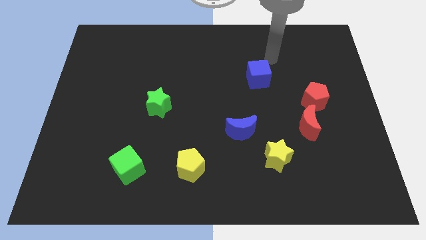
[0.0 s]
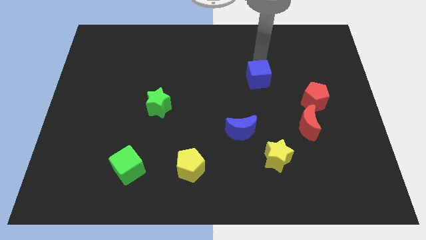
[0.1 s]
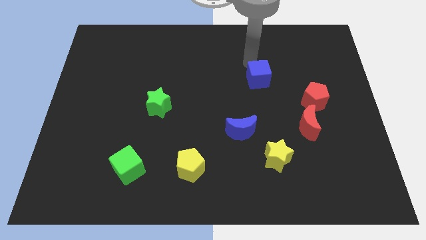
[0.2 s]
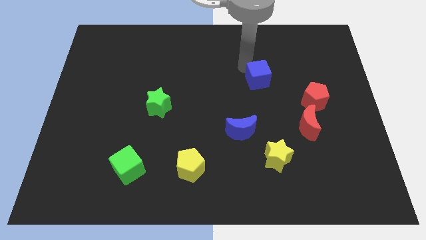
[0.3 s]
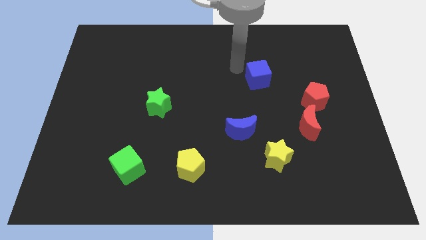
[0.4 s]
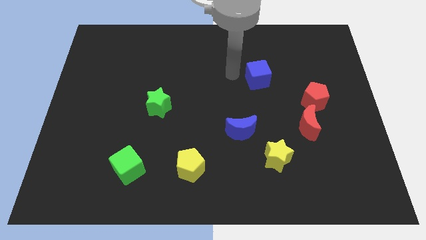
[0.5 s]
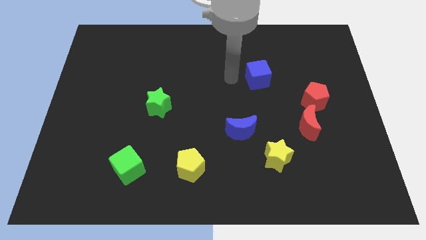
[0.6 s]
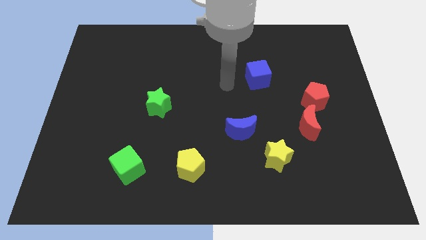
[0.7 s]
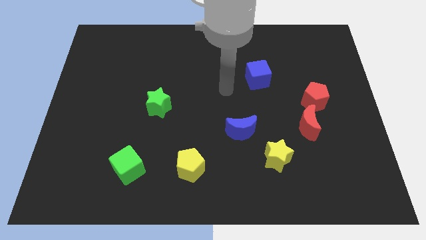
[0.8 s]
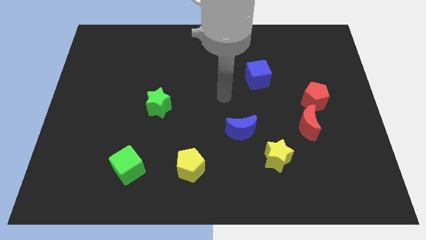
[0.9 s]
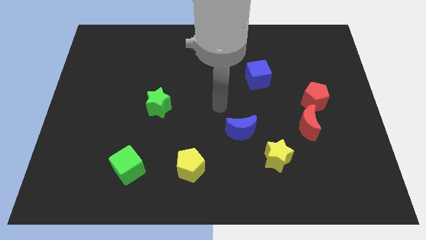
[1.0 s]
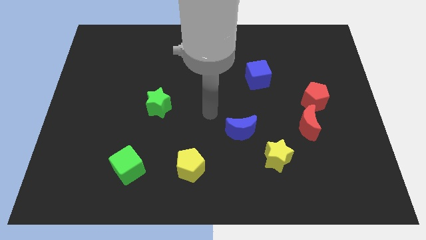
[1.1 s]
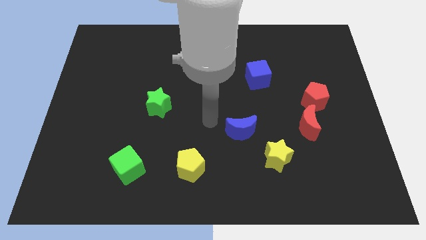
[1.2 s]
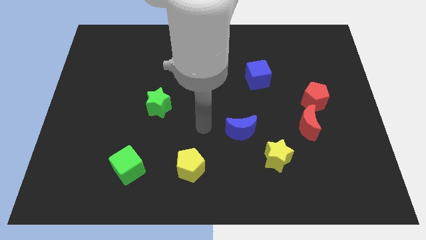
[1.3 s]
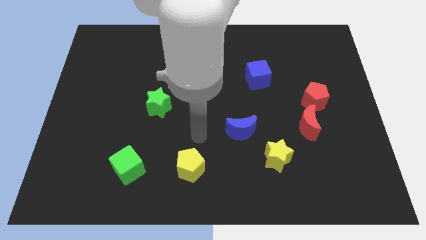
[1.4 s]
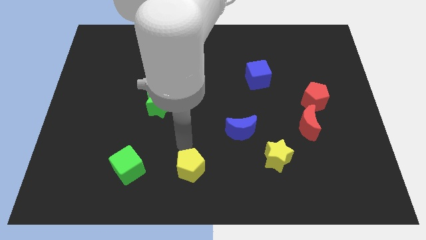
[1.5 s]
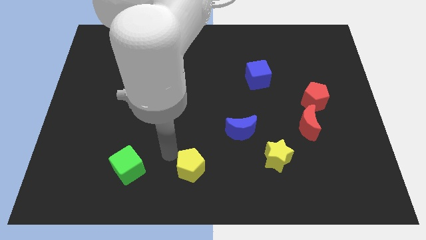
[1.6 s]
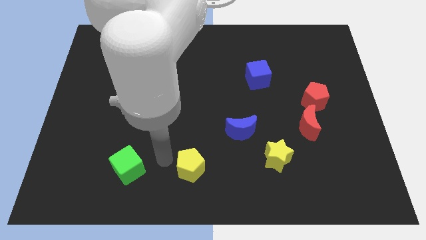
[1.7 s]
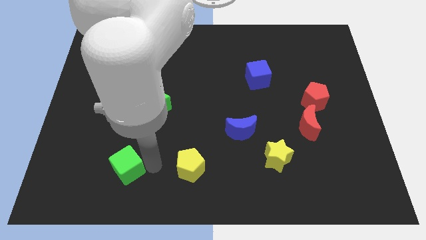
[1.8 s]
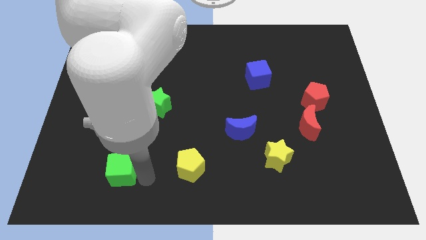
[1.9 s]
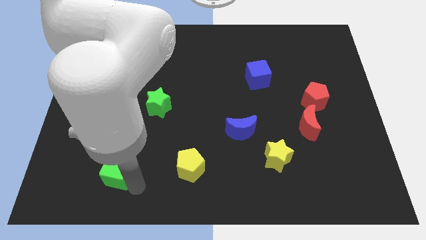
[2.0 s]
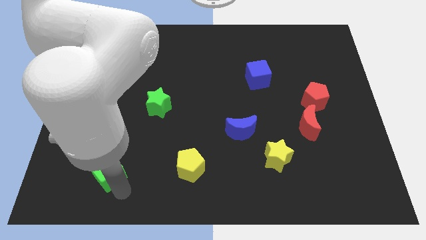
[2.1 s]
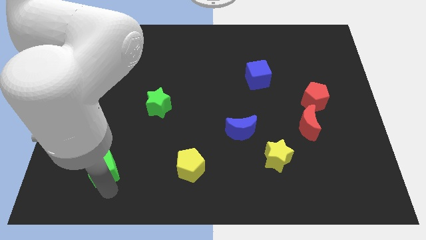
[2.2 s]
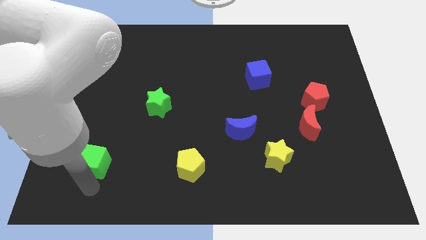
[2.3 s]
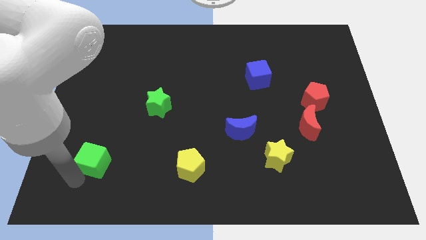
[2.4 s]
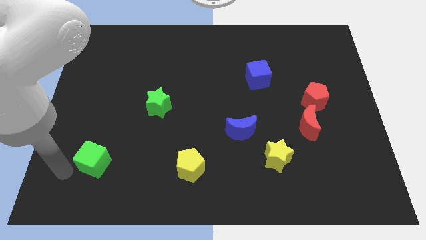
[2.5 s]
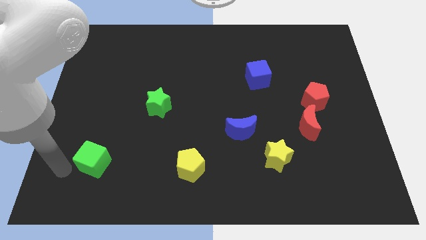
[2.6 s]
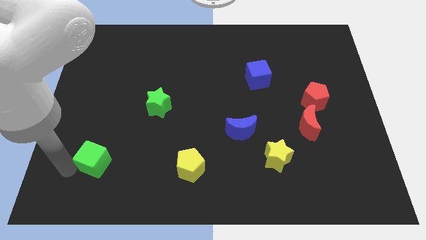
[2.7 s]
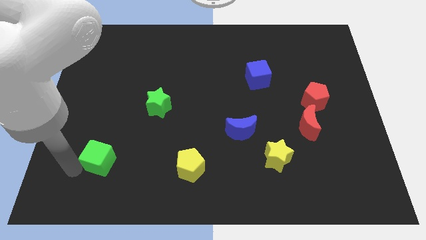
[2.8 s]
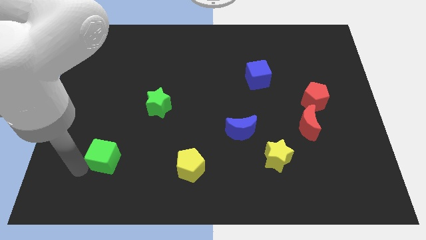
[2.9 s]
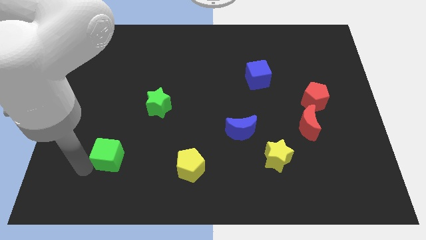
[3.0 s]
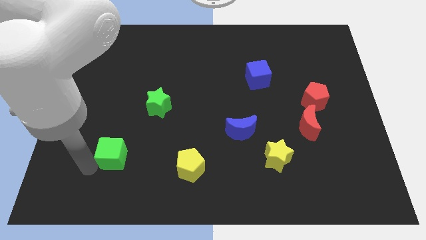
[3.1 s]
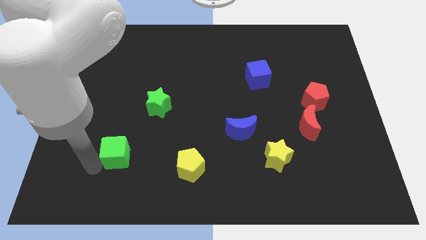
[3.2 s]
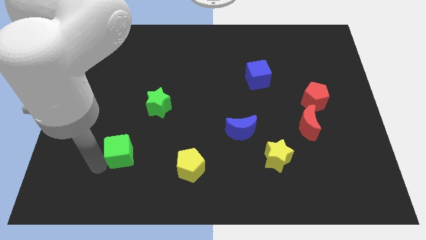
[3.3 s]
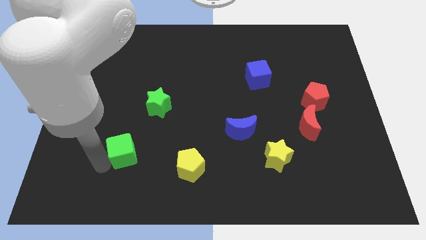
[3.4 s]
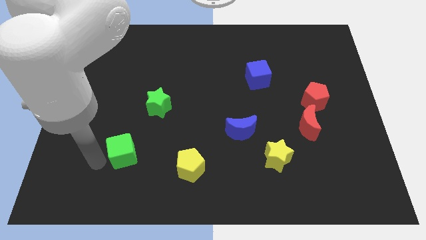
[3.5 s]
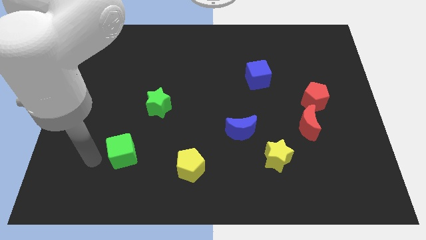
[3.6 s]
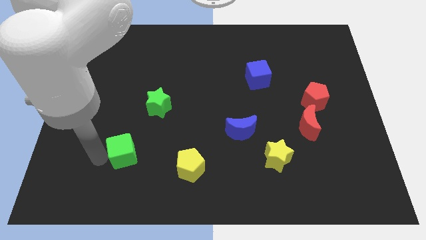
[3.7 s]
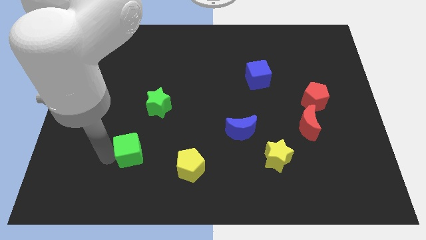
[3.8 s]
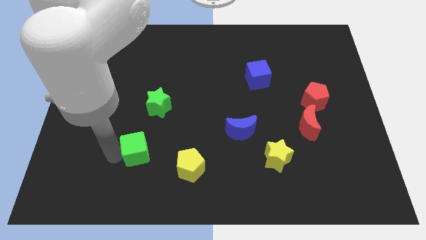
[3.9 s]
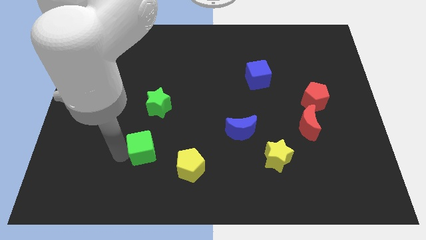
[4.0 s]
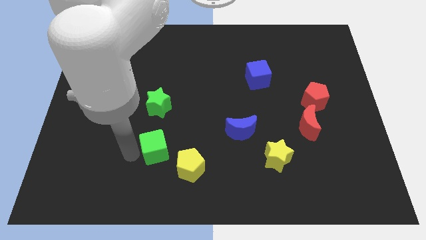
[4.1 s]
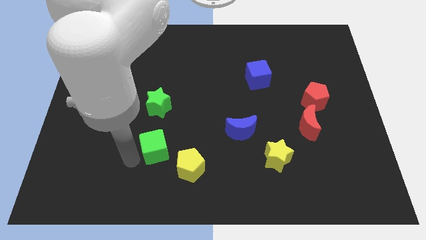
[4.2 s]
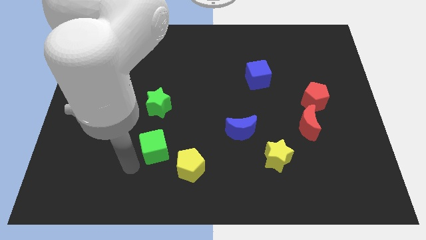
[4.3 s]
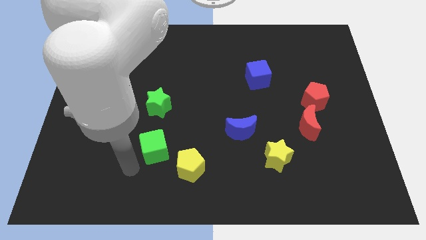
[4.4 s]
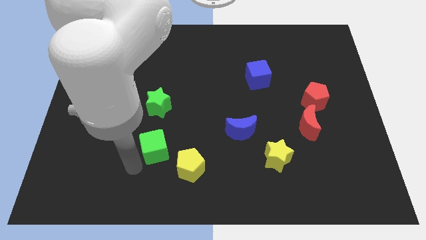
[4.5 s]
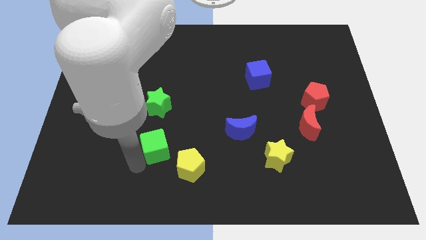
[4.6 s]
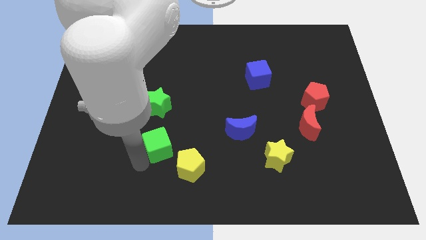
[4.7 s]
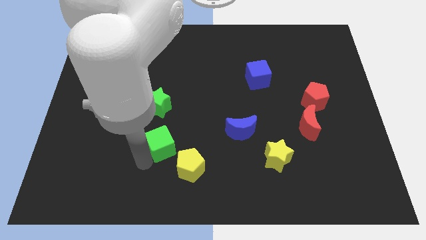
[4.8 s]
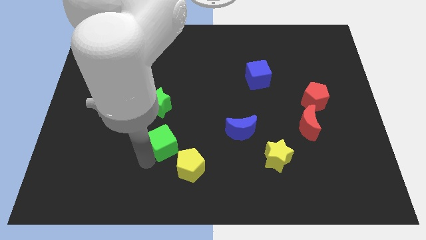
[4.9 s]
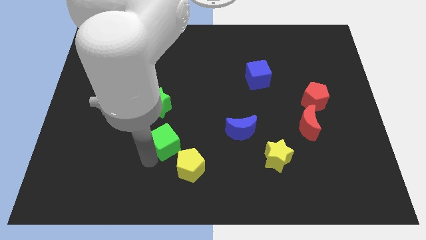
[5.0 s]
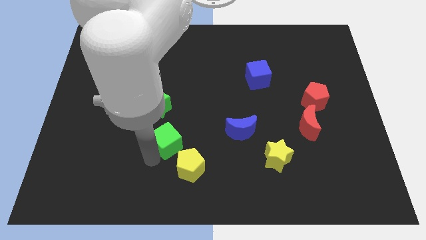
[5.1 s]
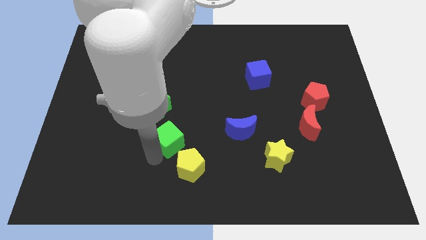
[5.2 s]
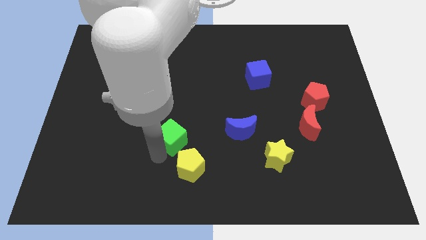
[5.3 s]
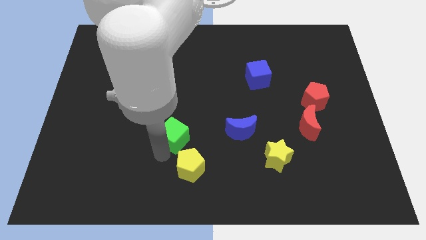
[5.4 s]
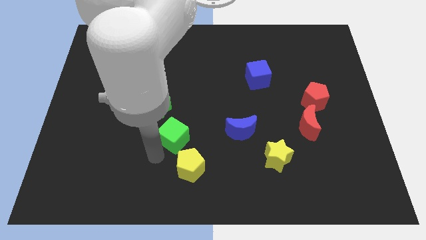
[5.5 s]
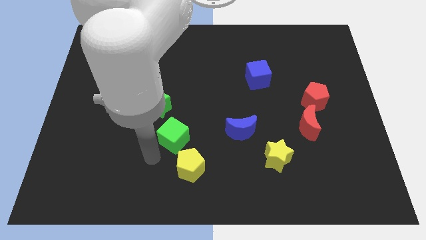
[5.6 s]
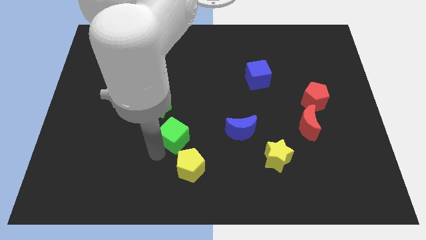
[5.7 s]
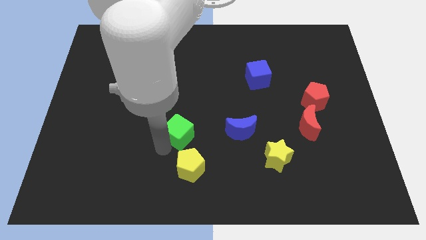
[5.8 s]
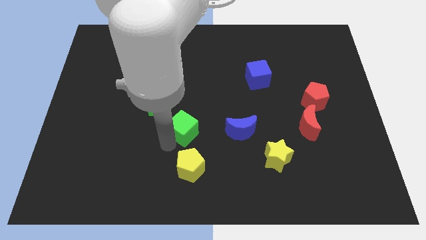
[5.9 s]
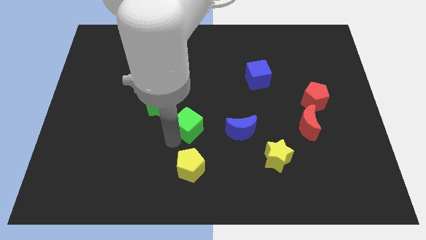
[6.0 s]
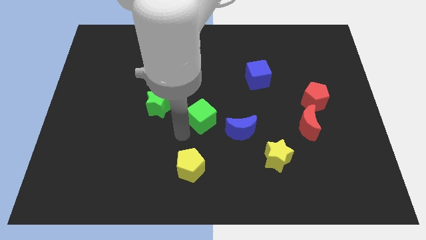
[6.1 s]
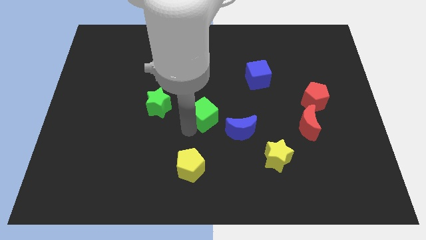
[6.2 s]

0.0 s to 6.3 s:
move the green cube up and right

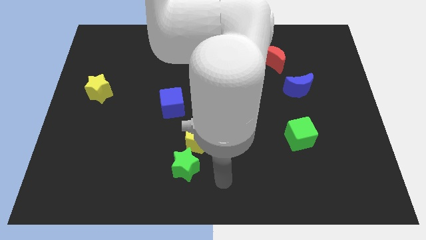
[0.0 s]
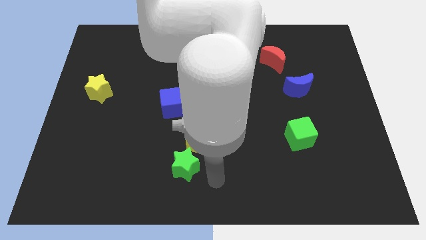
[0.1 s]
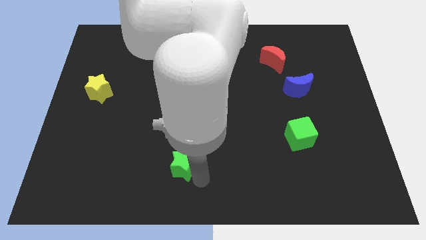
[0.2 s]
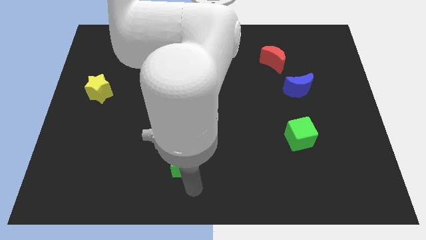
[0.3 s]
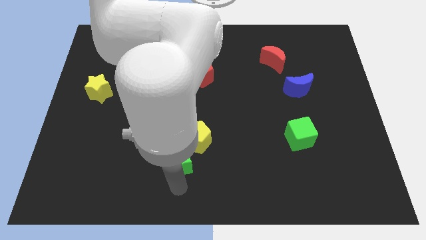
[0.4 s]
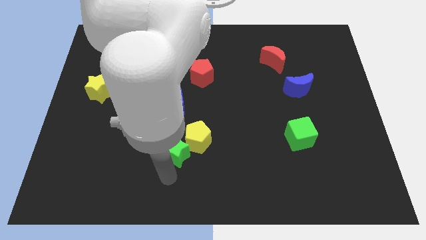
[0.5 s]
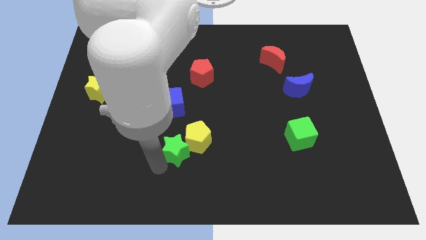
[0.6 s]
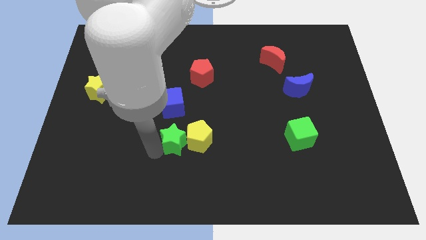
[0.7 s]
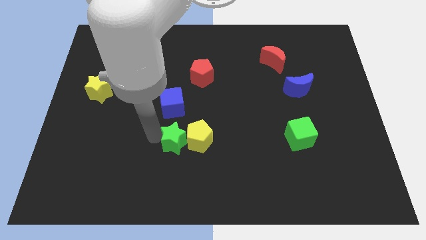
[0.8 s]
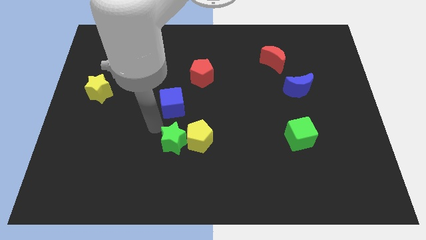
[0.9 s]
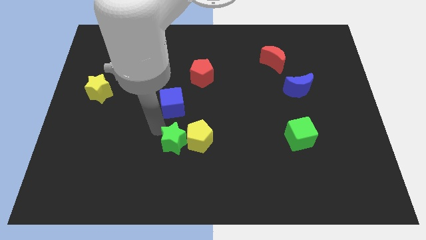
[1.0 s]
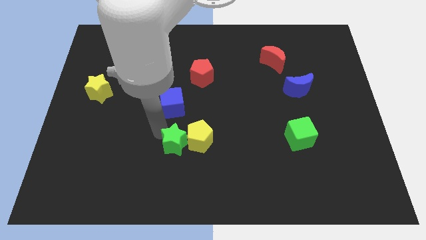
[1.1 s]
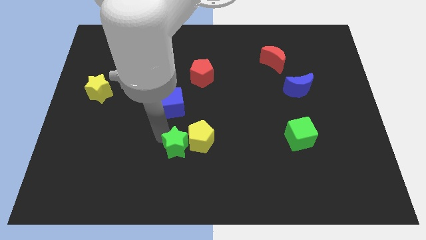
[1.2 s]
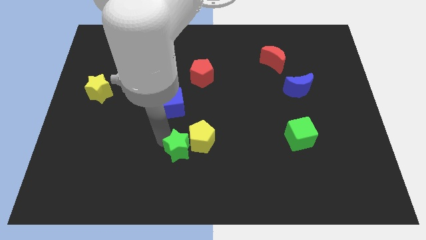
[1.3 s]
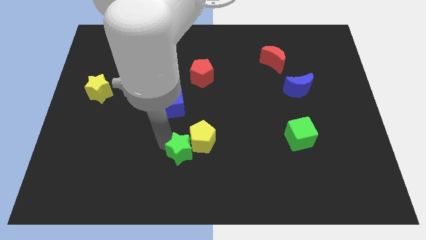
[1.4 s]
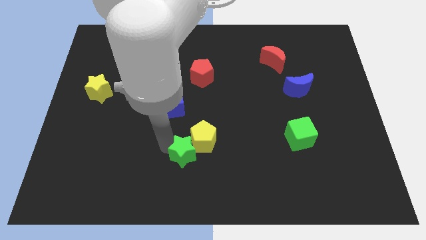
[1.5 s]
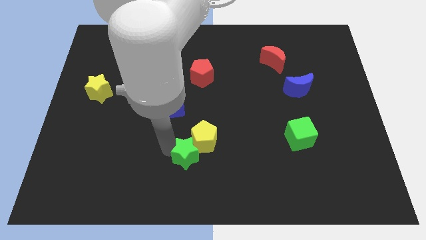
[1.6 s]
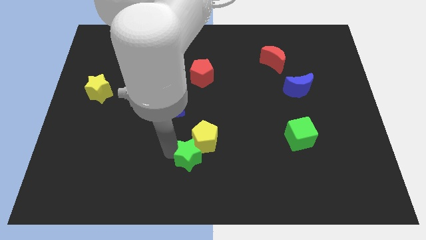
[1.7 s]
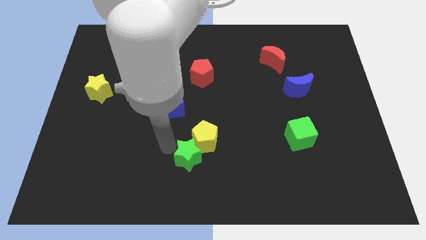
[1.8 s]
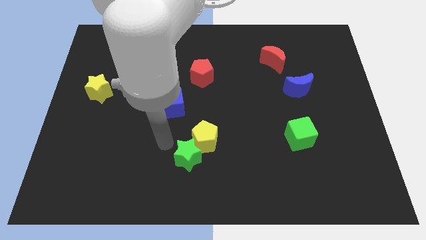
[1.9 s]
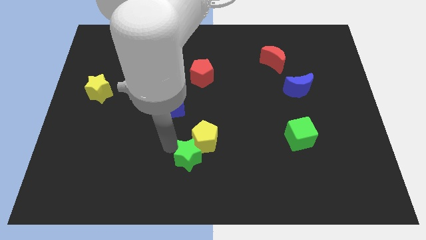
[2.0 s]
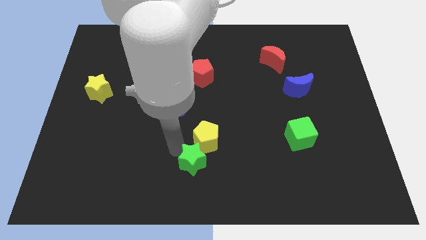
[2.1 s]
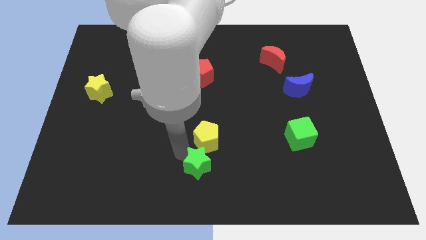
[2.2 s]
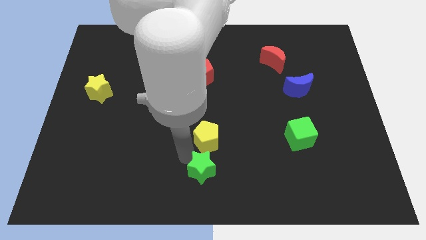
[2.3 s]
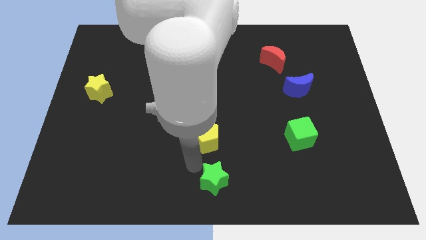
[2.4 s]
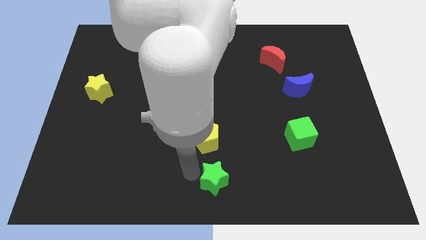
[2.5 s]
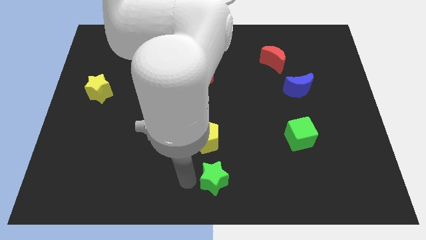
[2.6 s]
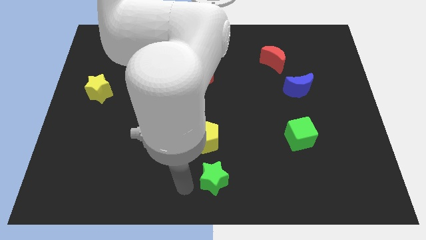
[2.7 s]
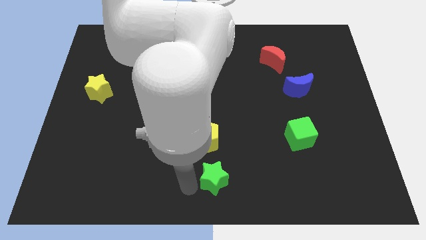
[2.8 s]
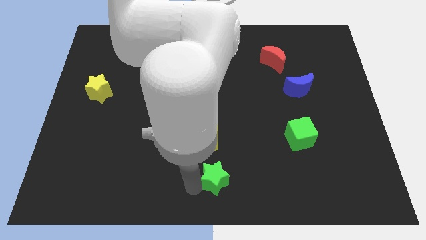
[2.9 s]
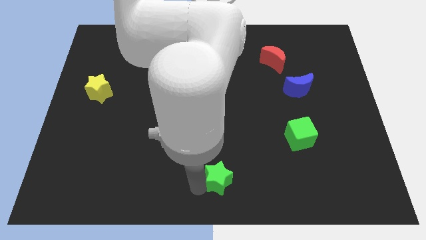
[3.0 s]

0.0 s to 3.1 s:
slide the green star slightly to the right
